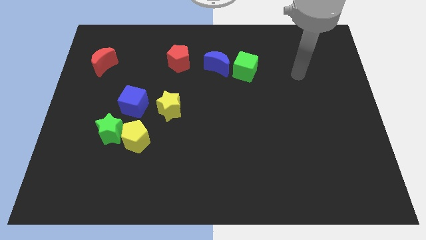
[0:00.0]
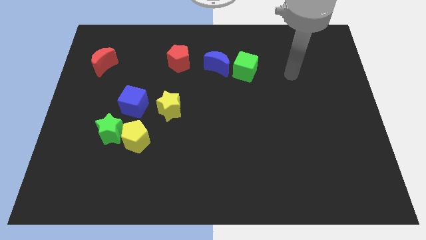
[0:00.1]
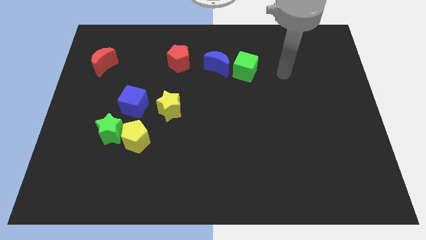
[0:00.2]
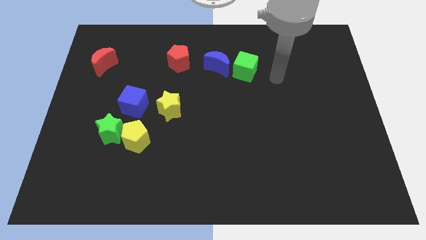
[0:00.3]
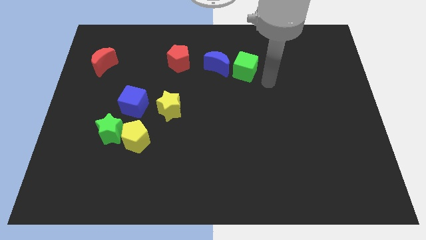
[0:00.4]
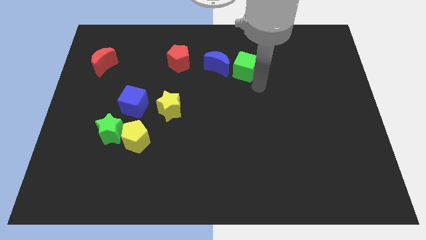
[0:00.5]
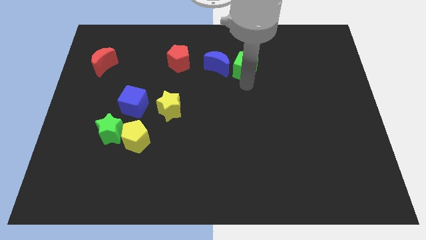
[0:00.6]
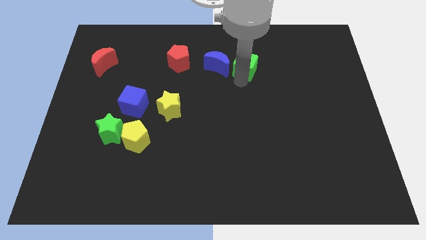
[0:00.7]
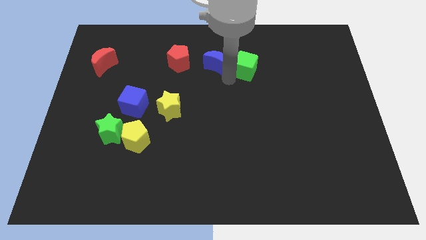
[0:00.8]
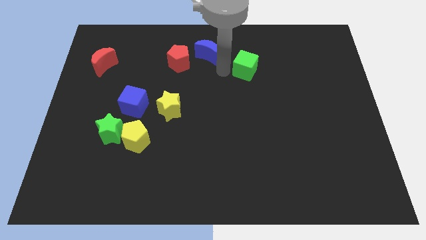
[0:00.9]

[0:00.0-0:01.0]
separate the green cube from the blue moon

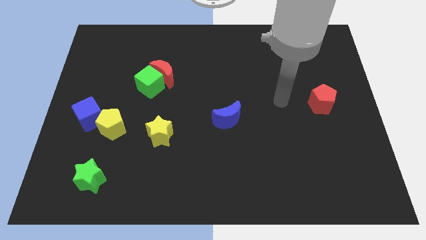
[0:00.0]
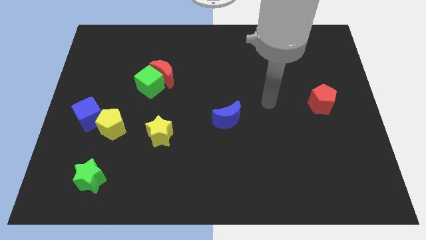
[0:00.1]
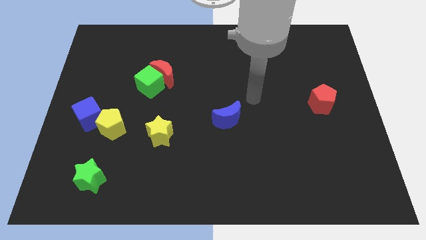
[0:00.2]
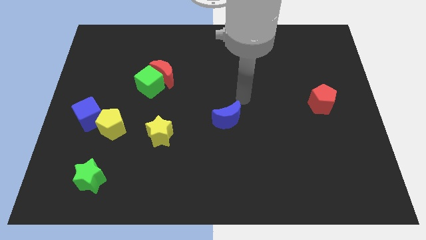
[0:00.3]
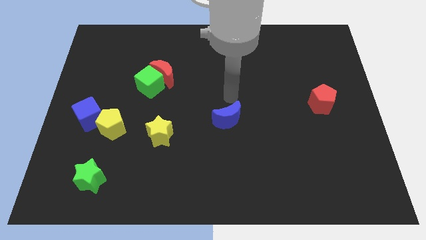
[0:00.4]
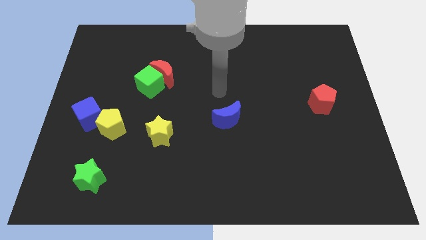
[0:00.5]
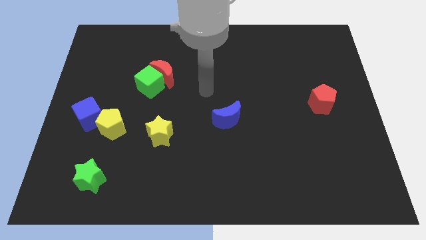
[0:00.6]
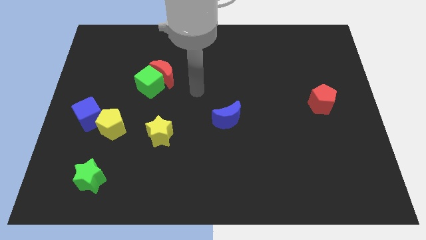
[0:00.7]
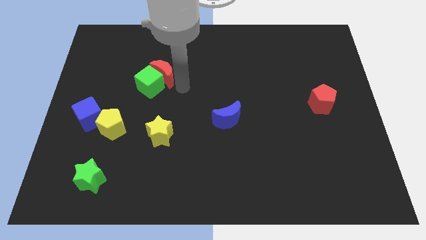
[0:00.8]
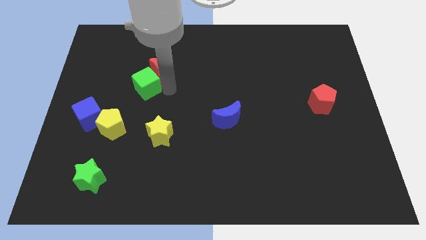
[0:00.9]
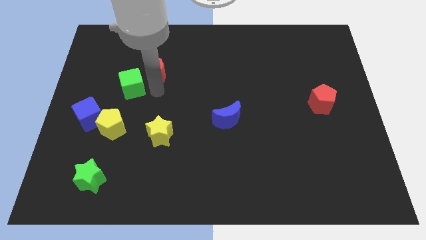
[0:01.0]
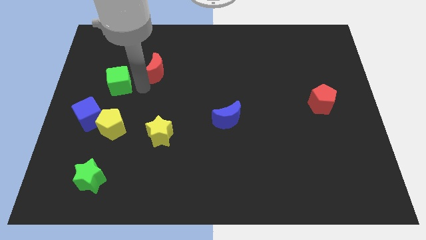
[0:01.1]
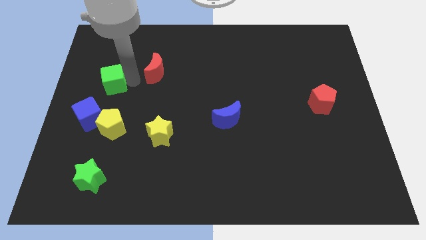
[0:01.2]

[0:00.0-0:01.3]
pull the red moon apart from the green cube

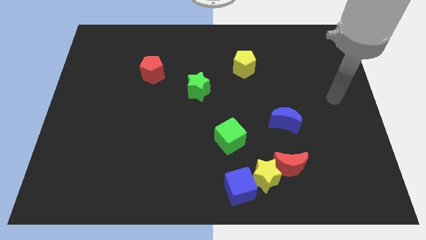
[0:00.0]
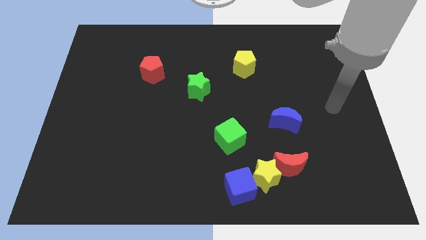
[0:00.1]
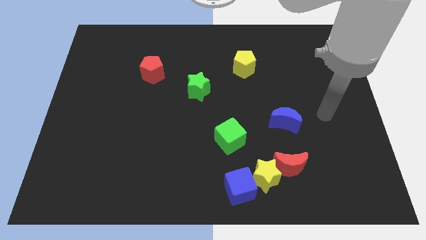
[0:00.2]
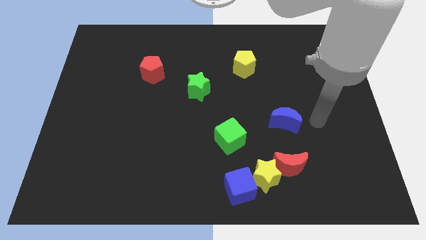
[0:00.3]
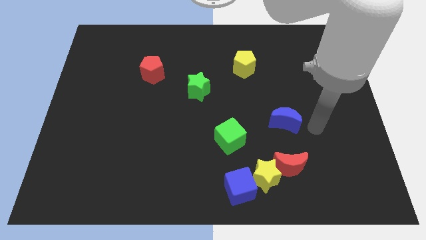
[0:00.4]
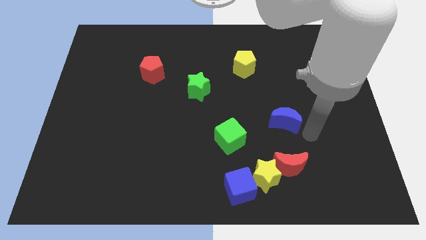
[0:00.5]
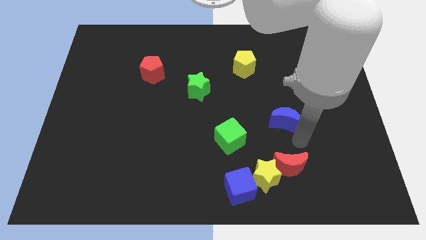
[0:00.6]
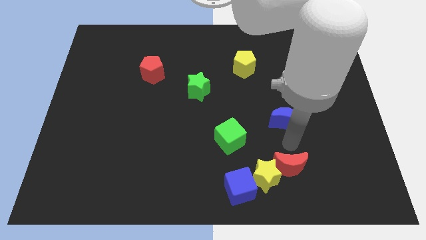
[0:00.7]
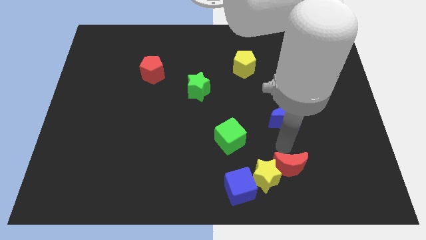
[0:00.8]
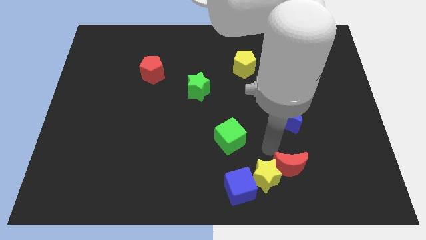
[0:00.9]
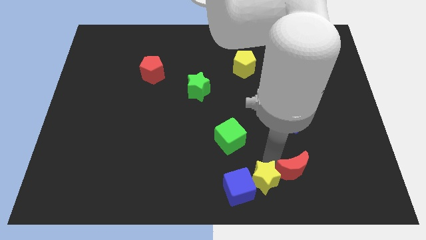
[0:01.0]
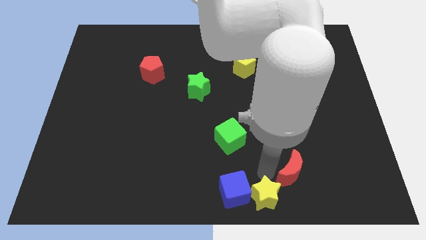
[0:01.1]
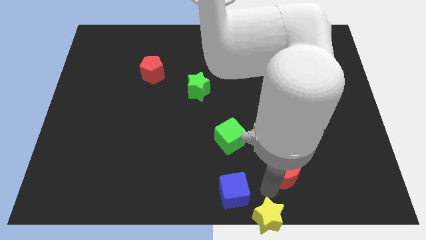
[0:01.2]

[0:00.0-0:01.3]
separate the red moon from the yellow star

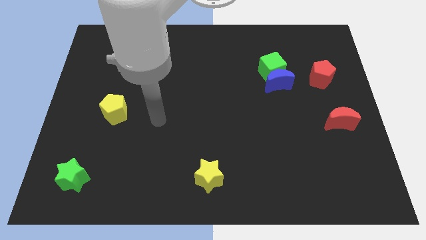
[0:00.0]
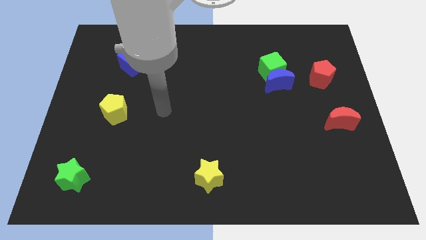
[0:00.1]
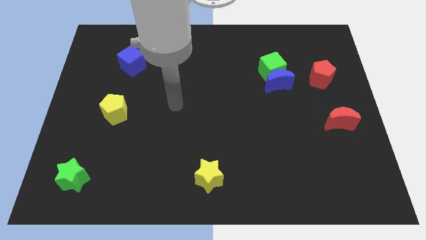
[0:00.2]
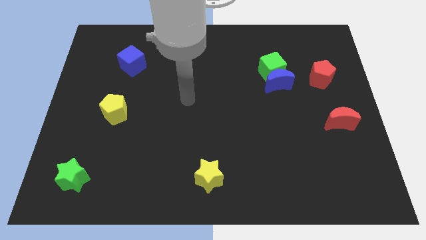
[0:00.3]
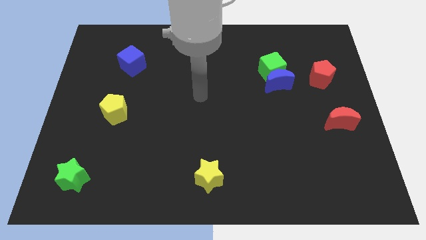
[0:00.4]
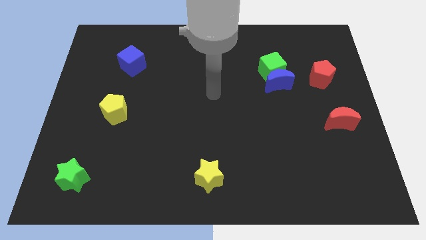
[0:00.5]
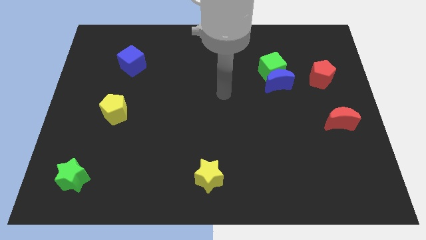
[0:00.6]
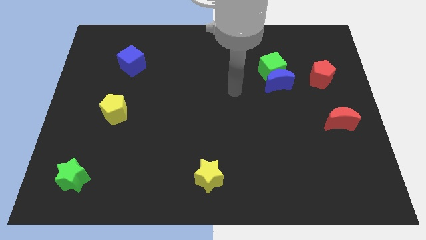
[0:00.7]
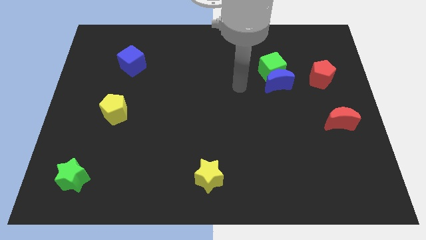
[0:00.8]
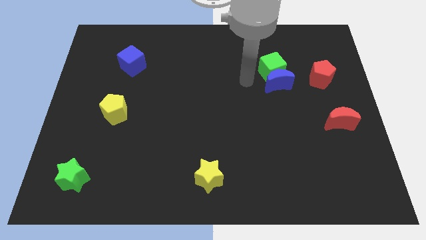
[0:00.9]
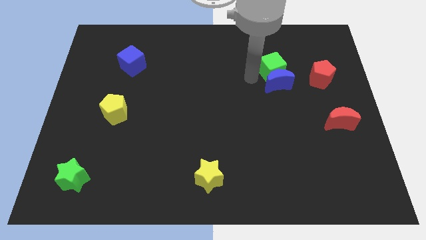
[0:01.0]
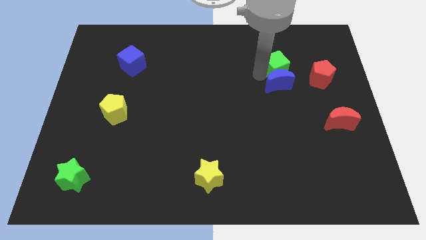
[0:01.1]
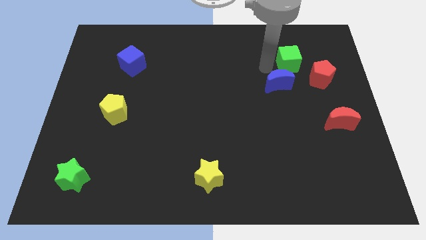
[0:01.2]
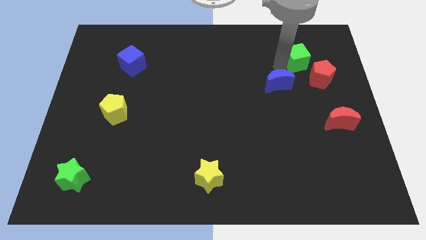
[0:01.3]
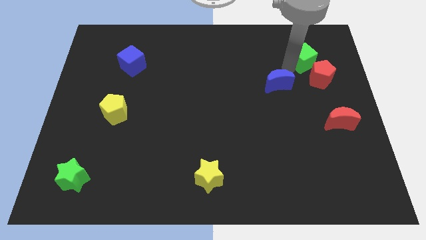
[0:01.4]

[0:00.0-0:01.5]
pull the blue moon apart from the green cube

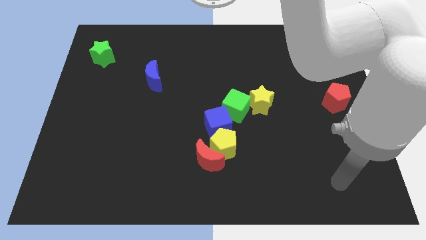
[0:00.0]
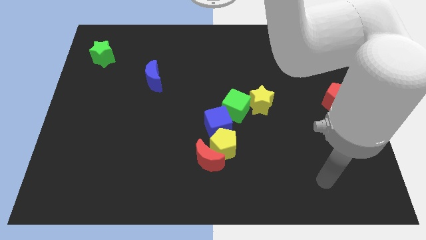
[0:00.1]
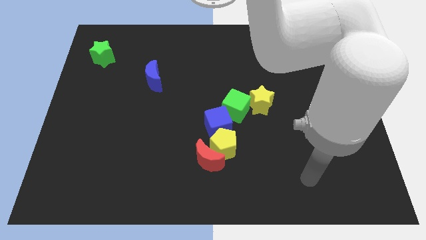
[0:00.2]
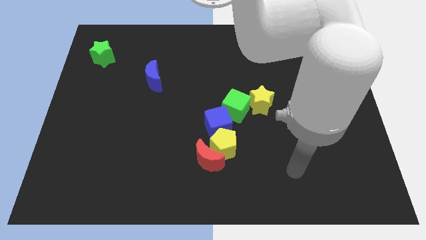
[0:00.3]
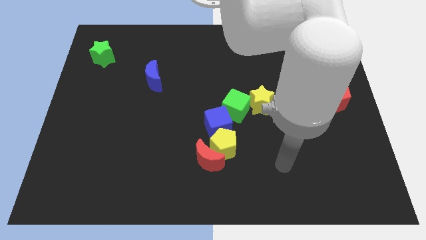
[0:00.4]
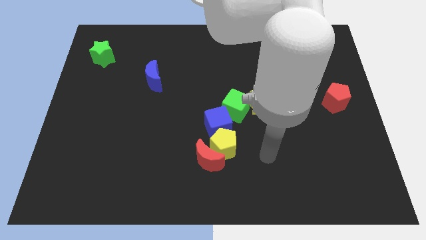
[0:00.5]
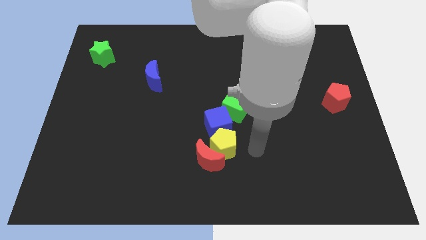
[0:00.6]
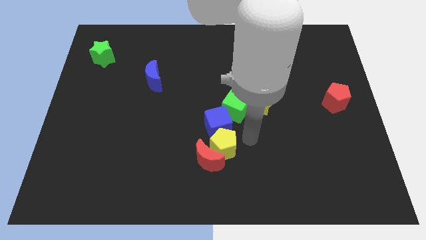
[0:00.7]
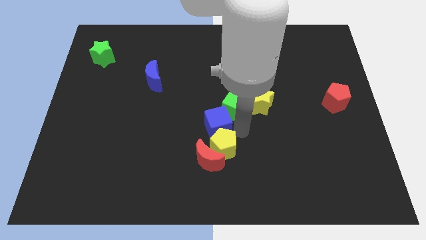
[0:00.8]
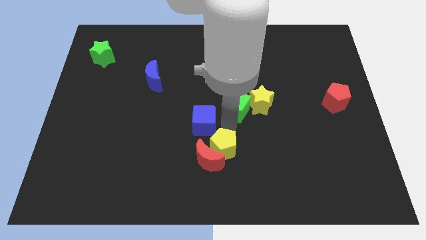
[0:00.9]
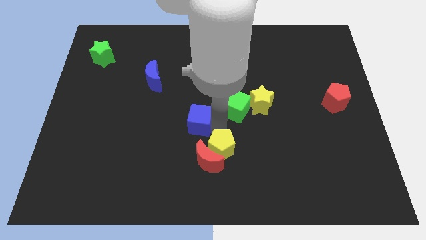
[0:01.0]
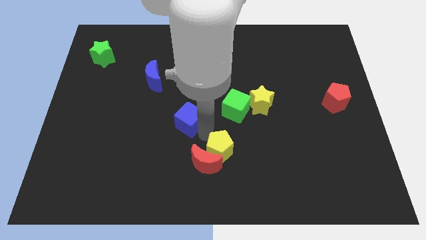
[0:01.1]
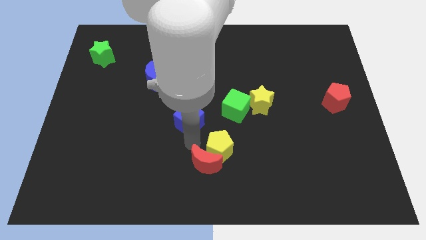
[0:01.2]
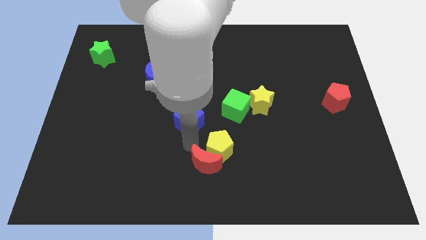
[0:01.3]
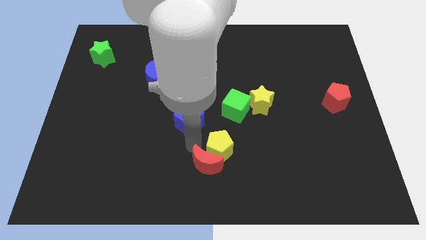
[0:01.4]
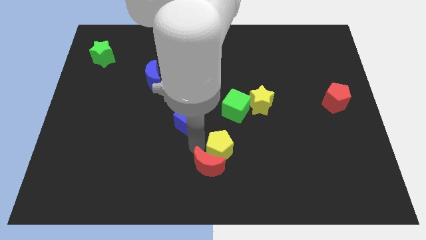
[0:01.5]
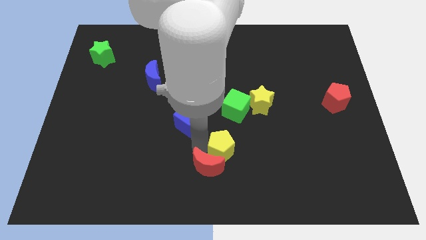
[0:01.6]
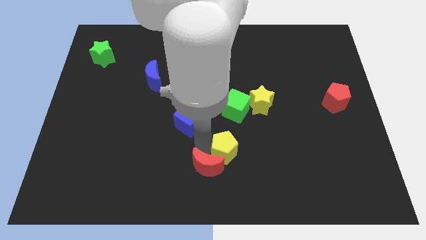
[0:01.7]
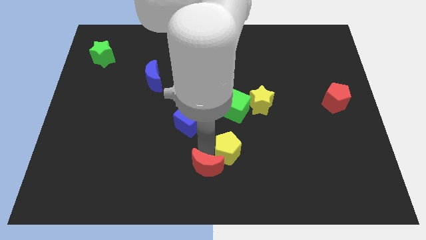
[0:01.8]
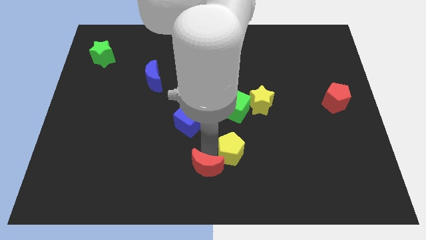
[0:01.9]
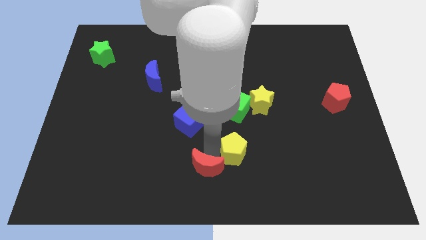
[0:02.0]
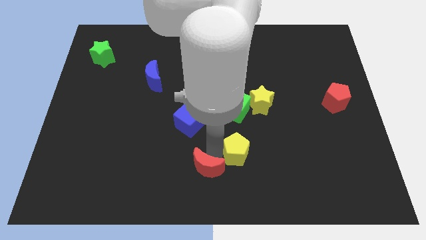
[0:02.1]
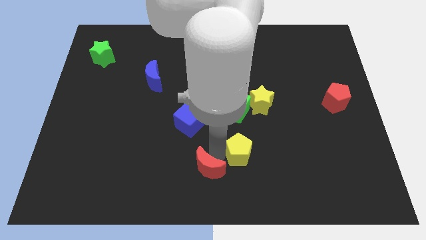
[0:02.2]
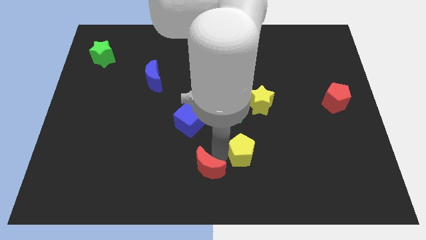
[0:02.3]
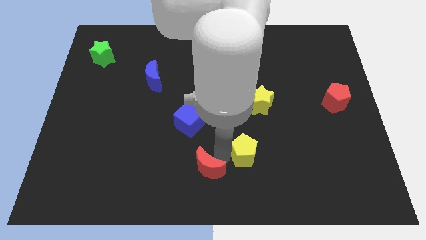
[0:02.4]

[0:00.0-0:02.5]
separate the yellow pentagon from the red moon and blue cube

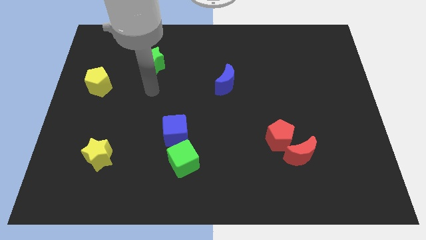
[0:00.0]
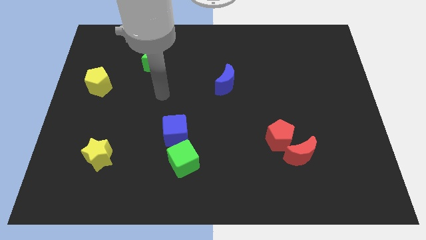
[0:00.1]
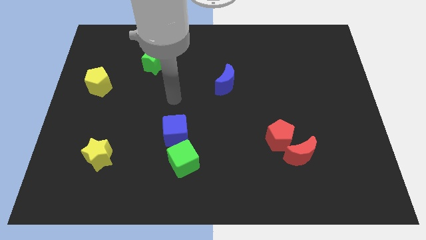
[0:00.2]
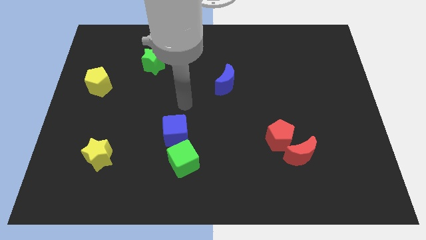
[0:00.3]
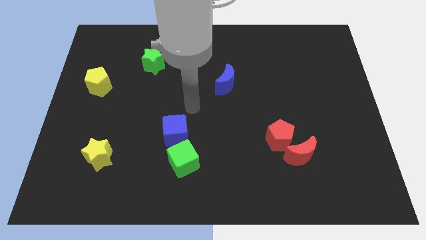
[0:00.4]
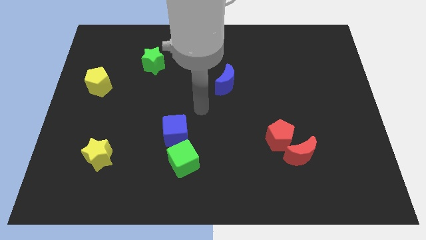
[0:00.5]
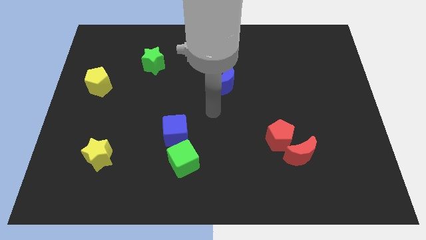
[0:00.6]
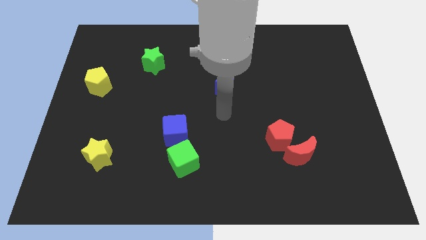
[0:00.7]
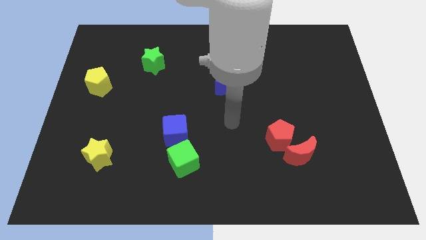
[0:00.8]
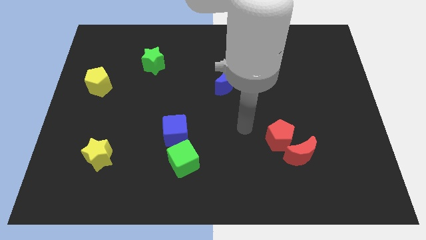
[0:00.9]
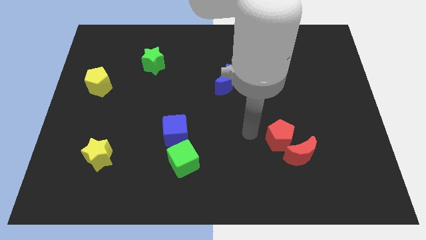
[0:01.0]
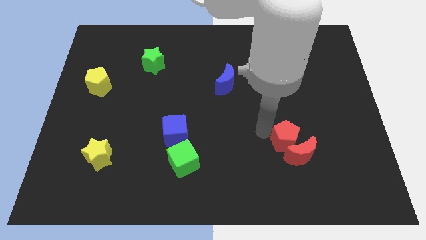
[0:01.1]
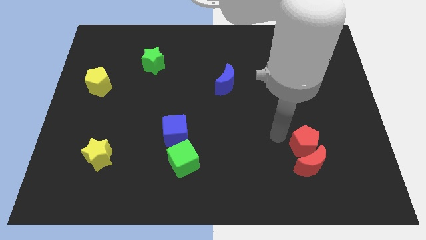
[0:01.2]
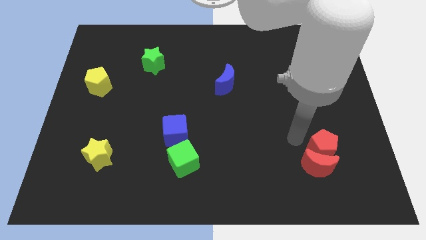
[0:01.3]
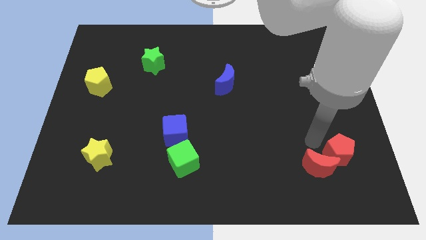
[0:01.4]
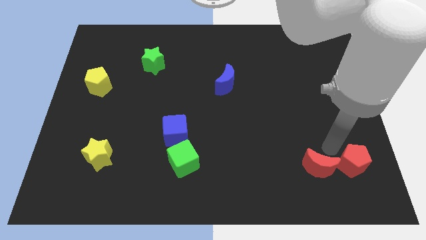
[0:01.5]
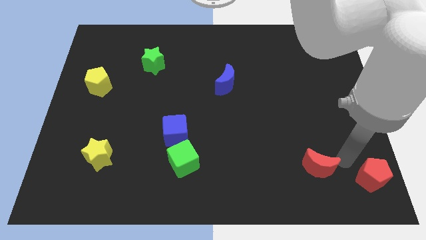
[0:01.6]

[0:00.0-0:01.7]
separate the red moon from the red pentagon
